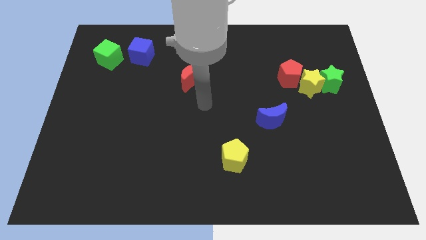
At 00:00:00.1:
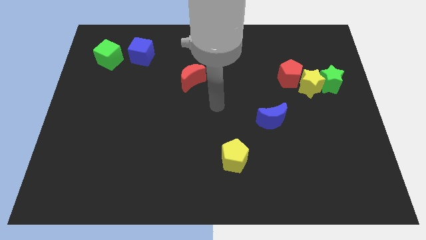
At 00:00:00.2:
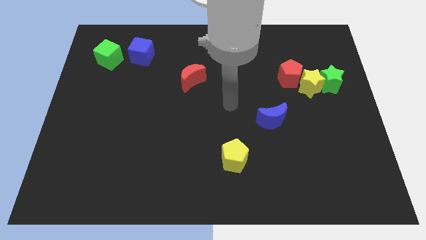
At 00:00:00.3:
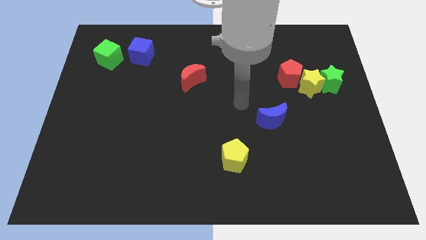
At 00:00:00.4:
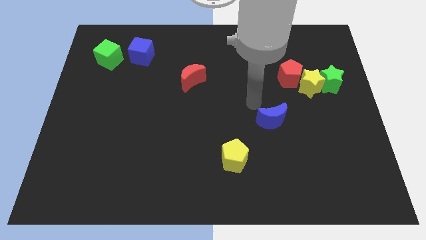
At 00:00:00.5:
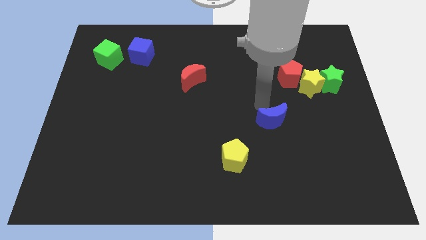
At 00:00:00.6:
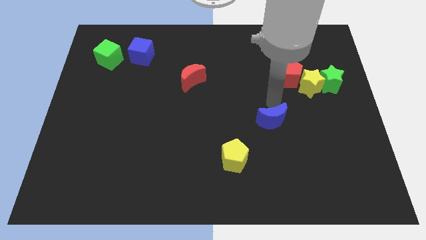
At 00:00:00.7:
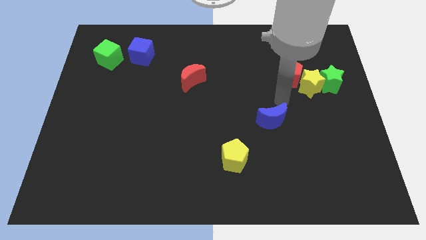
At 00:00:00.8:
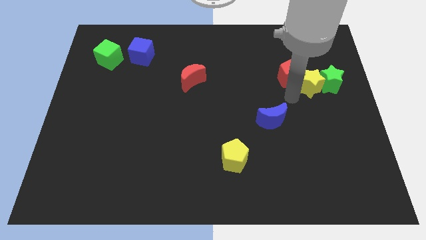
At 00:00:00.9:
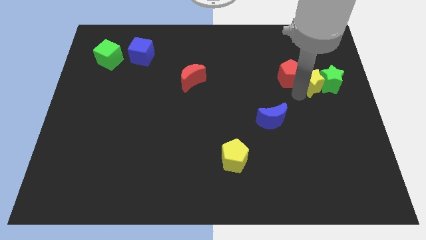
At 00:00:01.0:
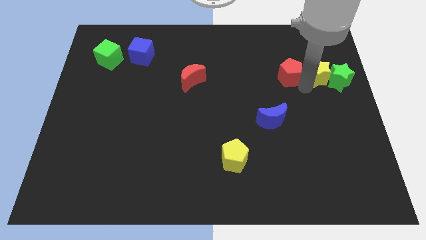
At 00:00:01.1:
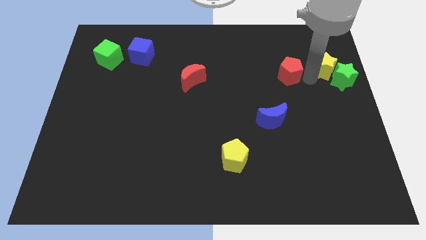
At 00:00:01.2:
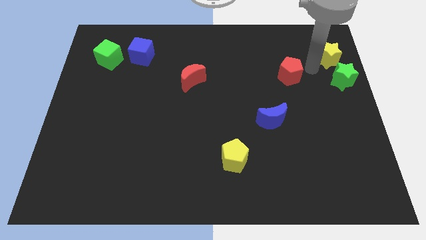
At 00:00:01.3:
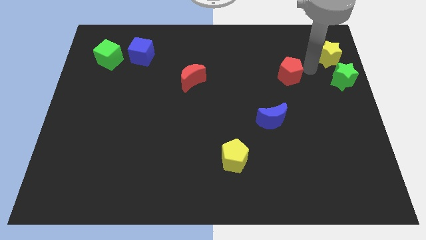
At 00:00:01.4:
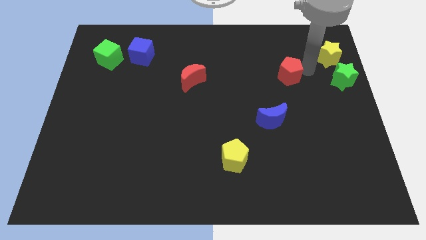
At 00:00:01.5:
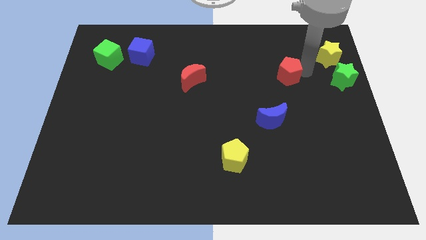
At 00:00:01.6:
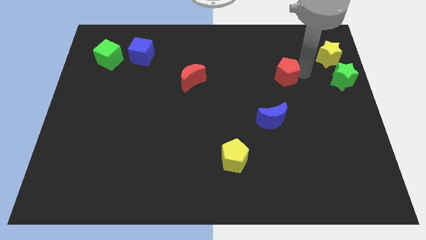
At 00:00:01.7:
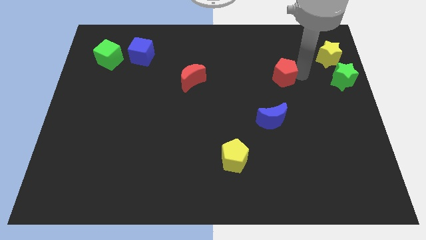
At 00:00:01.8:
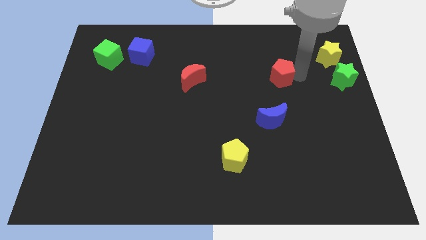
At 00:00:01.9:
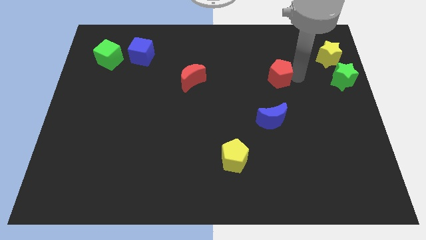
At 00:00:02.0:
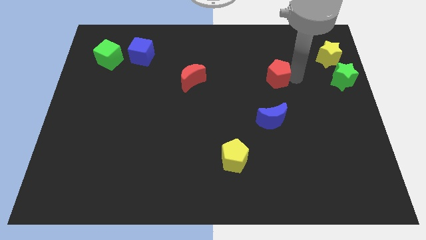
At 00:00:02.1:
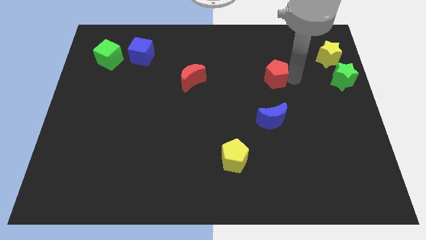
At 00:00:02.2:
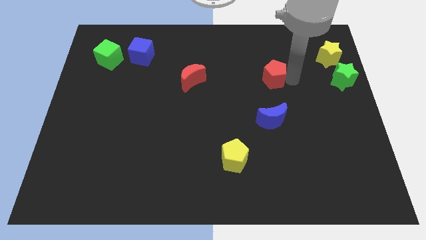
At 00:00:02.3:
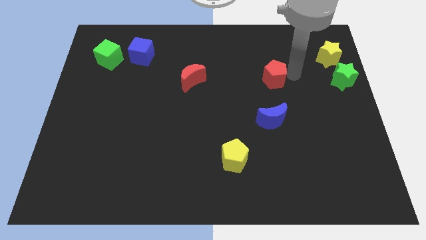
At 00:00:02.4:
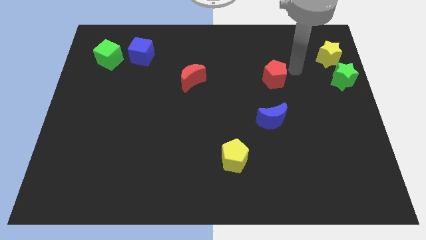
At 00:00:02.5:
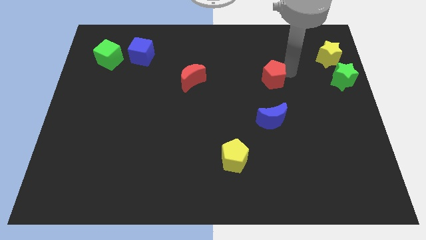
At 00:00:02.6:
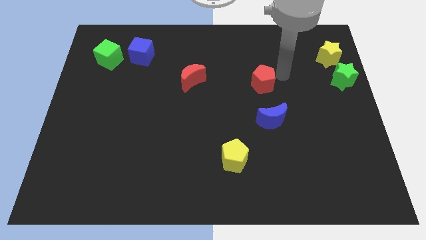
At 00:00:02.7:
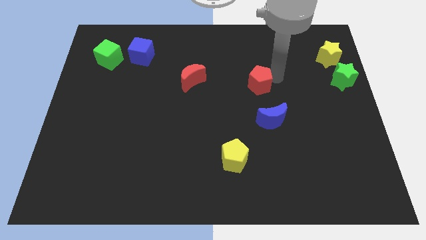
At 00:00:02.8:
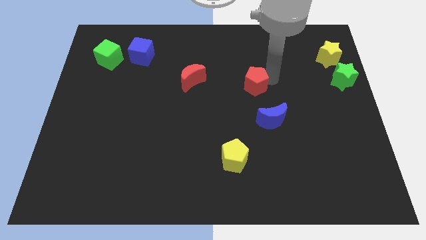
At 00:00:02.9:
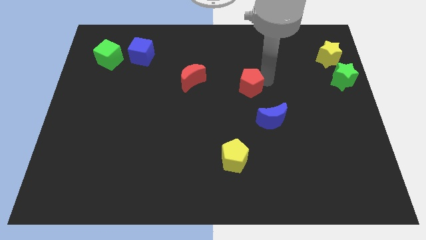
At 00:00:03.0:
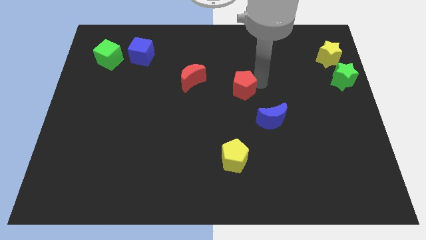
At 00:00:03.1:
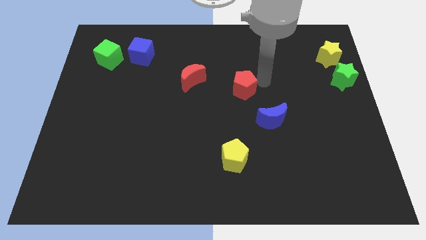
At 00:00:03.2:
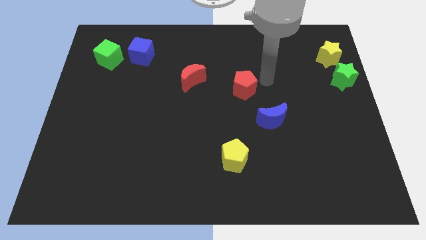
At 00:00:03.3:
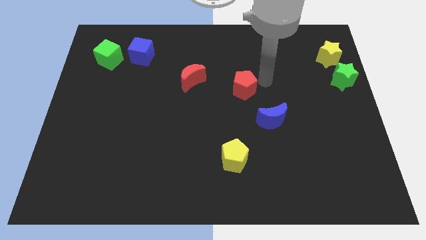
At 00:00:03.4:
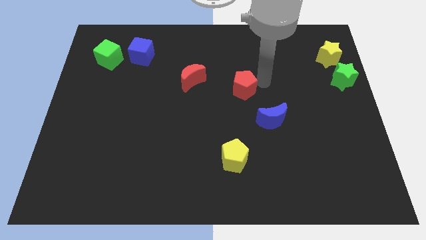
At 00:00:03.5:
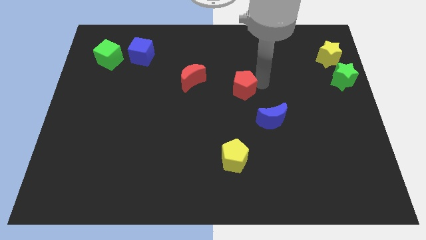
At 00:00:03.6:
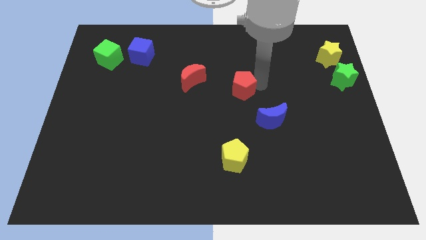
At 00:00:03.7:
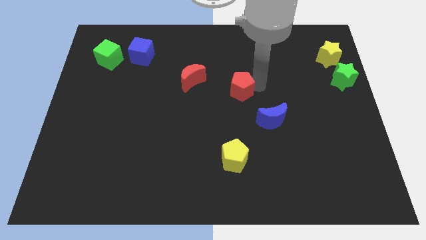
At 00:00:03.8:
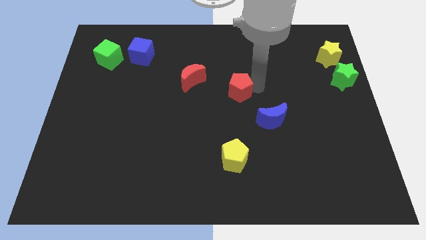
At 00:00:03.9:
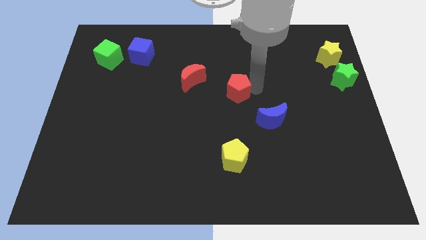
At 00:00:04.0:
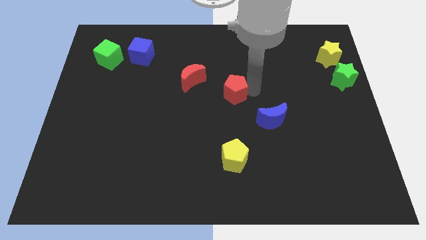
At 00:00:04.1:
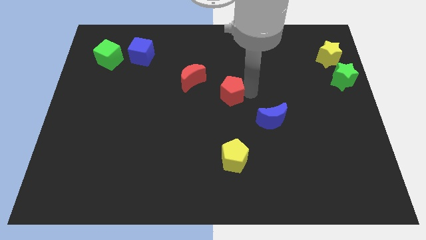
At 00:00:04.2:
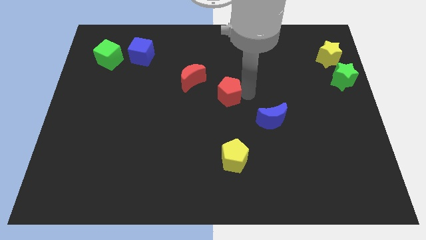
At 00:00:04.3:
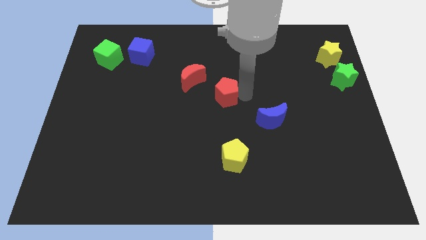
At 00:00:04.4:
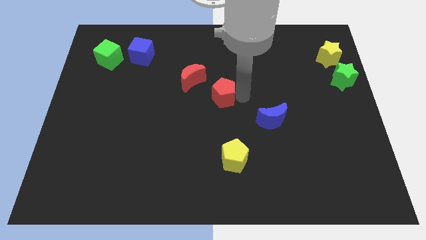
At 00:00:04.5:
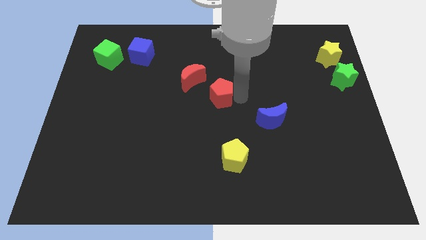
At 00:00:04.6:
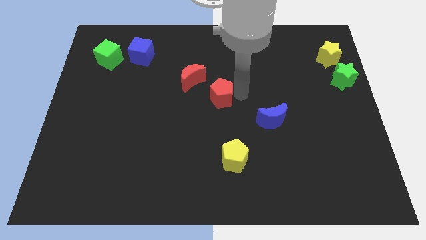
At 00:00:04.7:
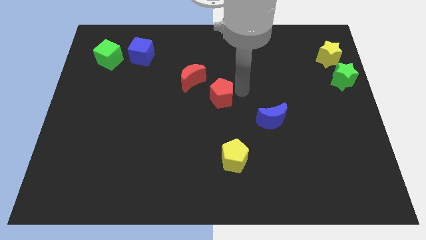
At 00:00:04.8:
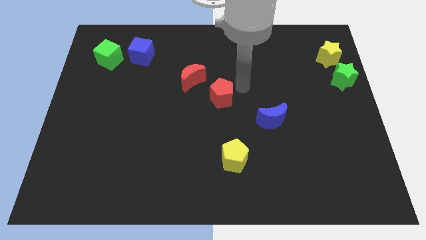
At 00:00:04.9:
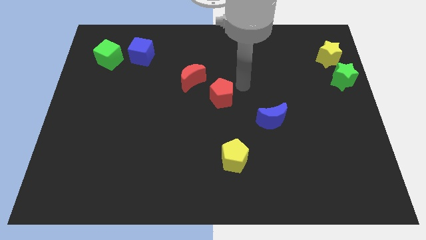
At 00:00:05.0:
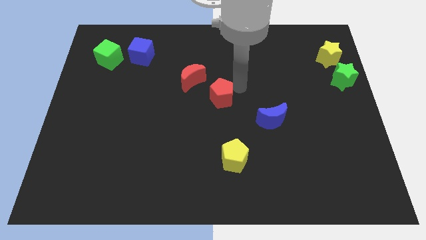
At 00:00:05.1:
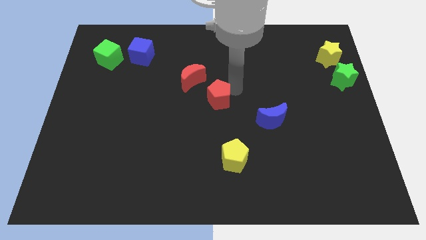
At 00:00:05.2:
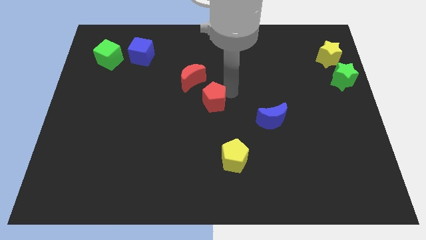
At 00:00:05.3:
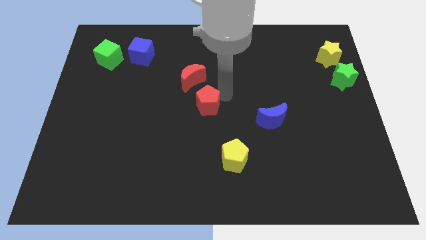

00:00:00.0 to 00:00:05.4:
move the red pentagon below the red moon

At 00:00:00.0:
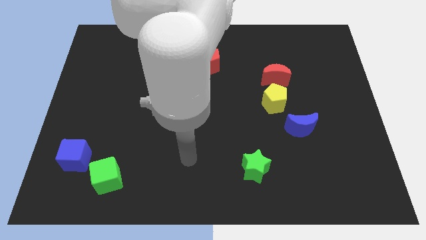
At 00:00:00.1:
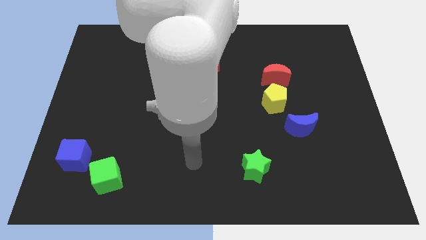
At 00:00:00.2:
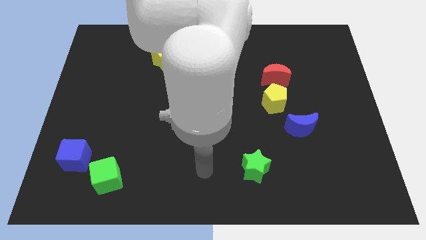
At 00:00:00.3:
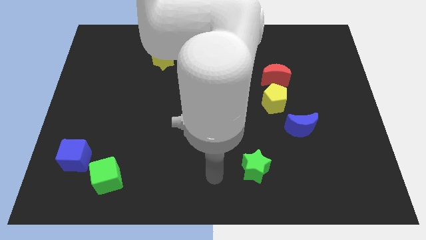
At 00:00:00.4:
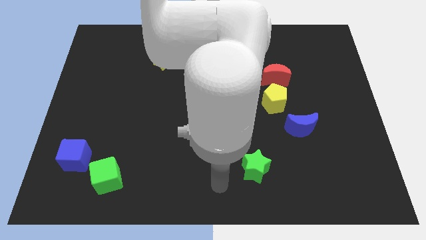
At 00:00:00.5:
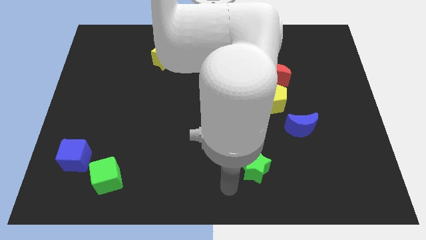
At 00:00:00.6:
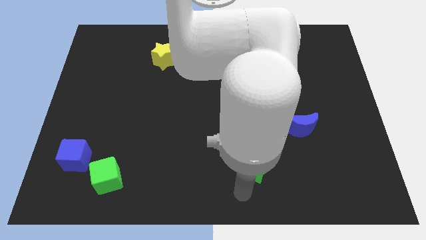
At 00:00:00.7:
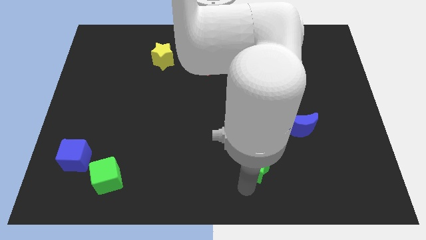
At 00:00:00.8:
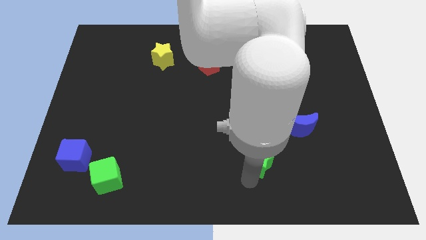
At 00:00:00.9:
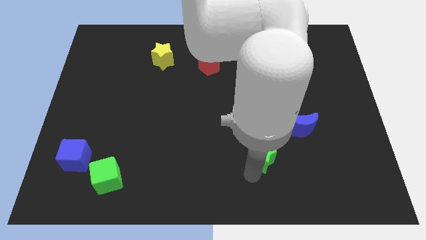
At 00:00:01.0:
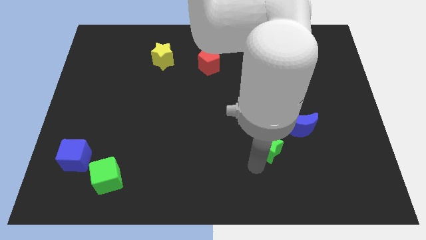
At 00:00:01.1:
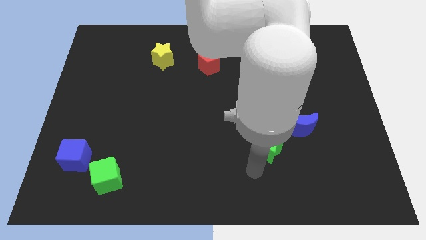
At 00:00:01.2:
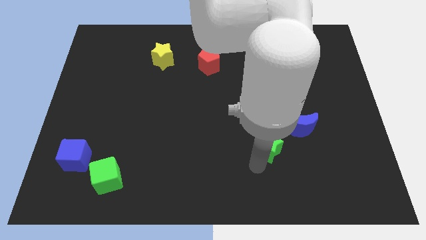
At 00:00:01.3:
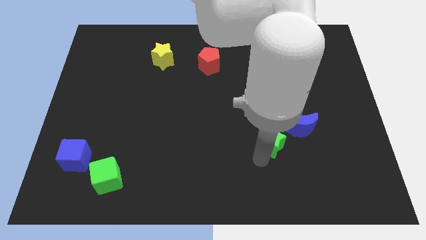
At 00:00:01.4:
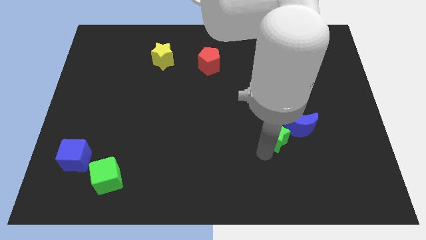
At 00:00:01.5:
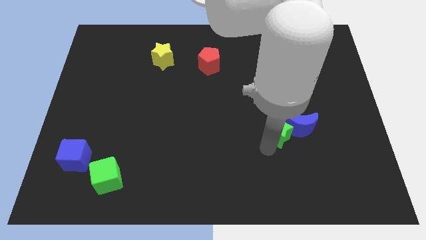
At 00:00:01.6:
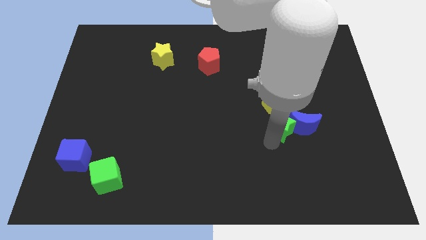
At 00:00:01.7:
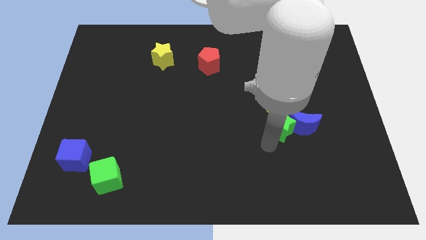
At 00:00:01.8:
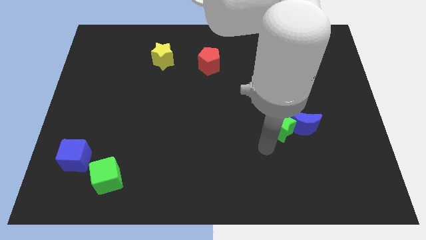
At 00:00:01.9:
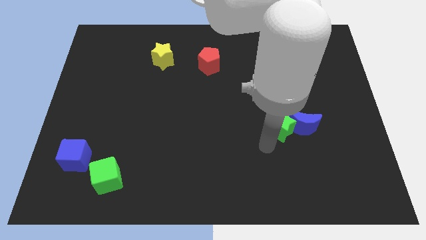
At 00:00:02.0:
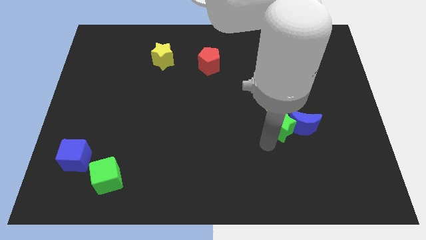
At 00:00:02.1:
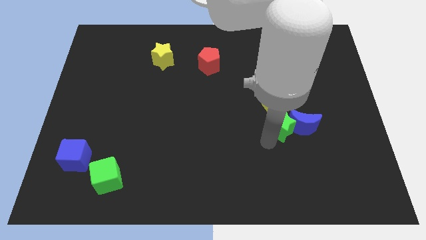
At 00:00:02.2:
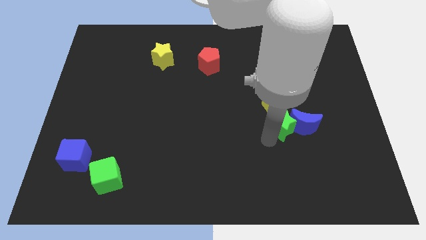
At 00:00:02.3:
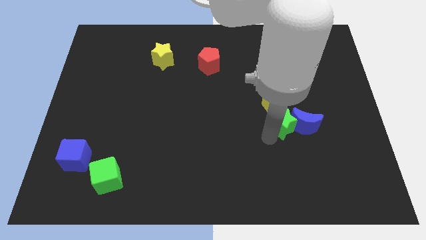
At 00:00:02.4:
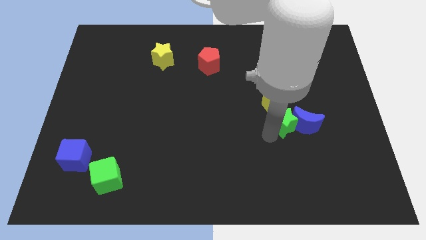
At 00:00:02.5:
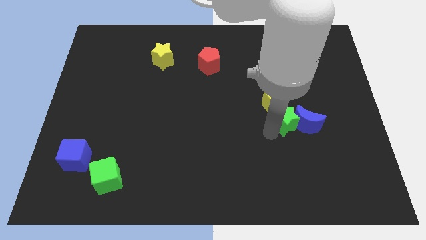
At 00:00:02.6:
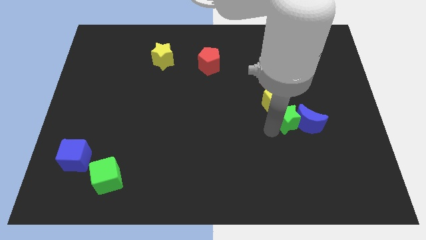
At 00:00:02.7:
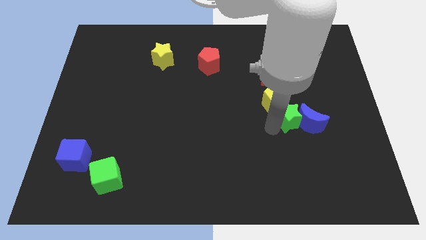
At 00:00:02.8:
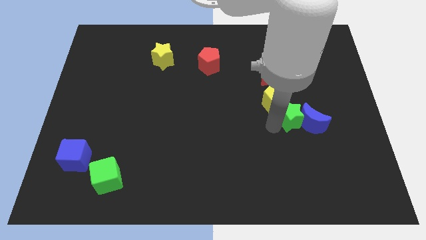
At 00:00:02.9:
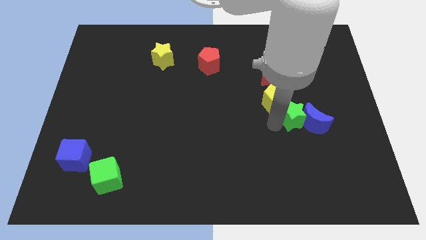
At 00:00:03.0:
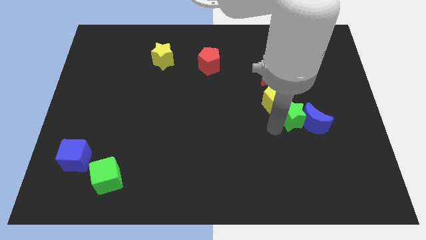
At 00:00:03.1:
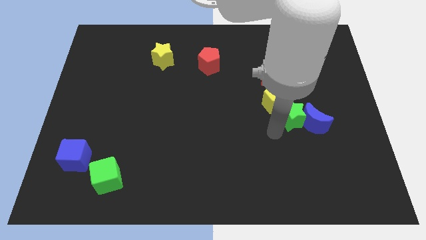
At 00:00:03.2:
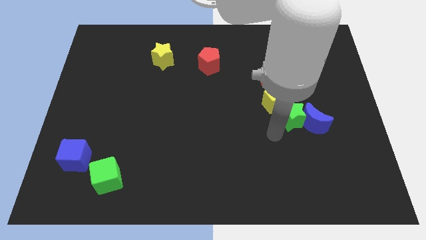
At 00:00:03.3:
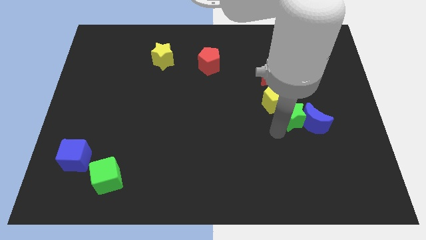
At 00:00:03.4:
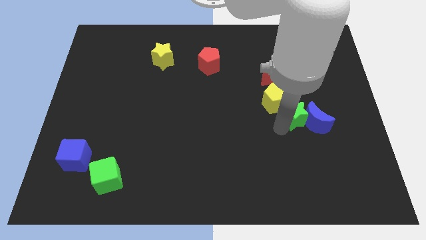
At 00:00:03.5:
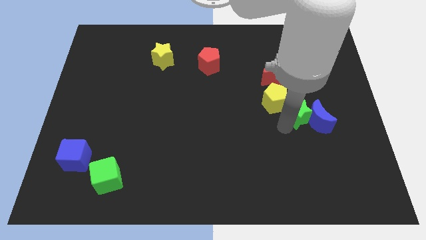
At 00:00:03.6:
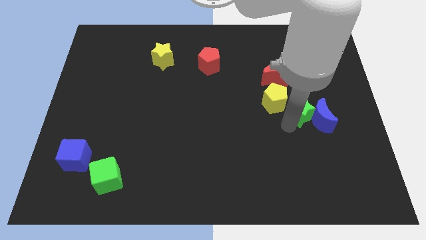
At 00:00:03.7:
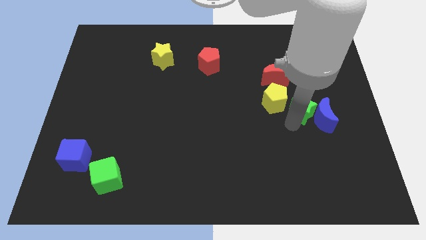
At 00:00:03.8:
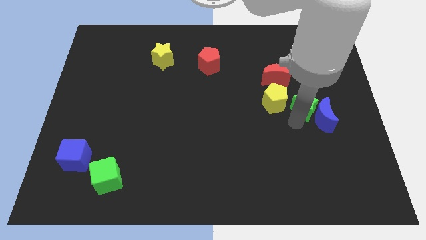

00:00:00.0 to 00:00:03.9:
push the green star to the top of the blue moon
